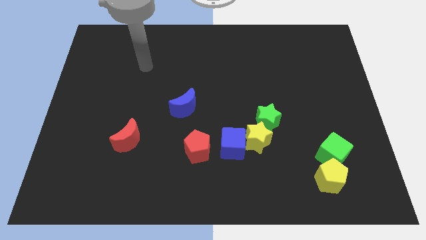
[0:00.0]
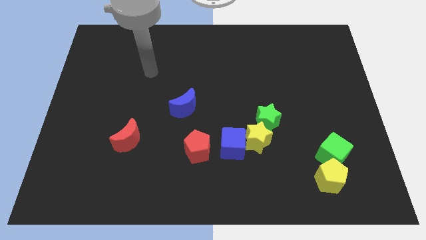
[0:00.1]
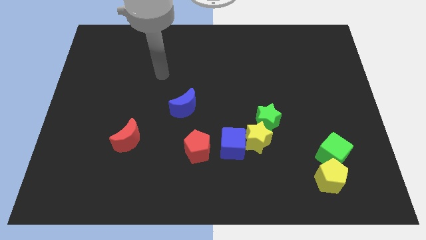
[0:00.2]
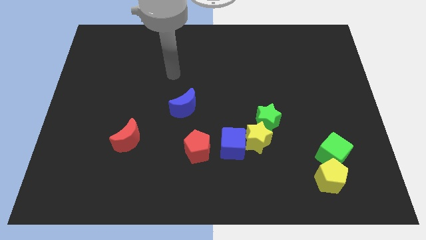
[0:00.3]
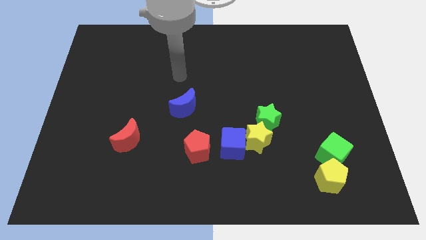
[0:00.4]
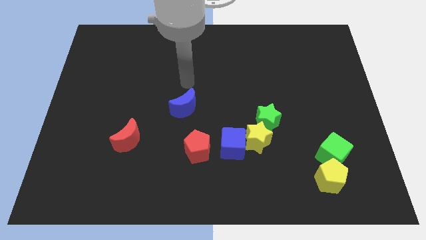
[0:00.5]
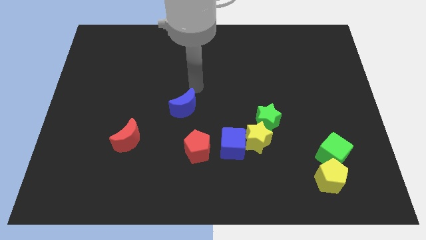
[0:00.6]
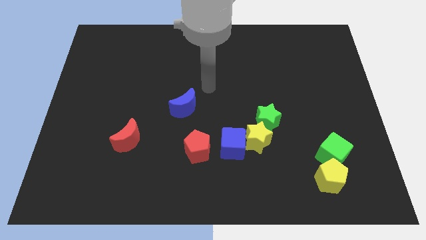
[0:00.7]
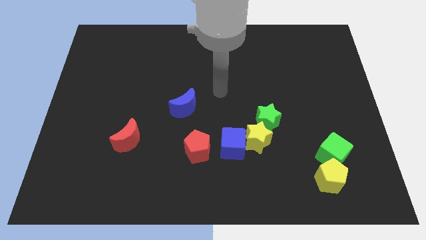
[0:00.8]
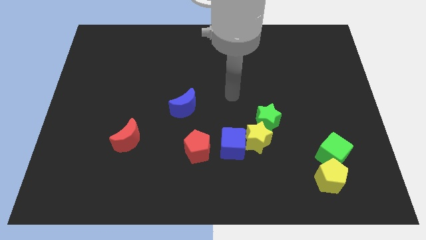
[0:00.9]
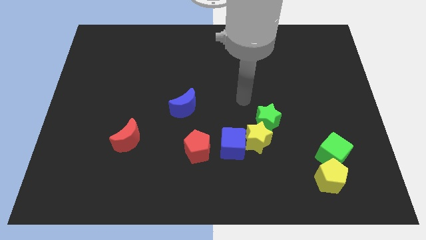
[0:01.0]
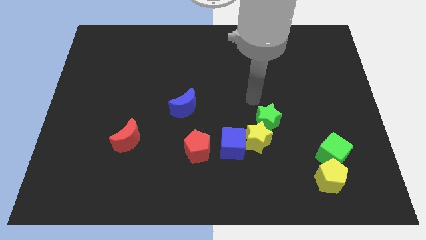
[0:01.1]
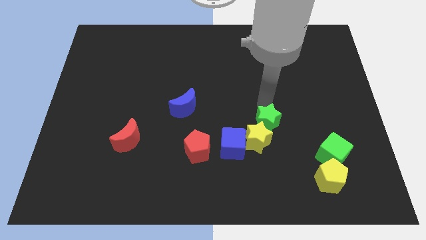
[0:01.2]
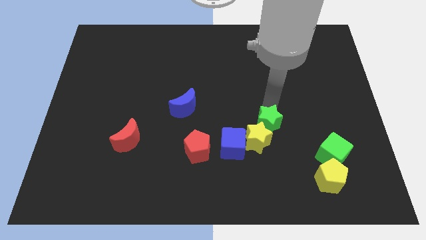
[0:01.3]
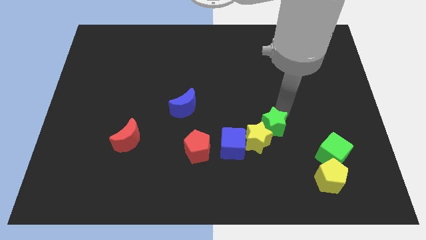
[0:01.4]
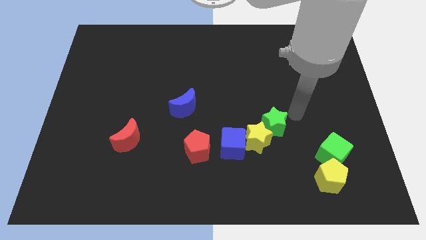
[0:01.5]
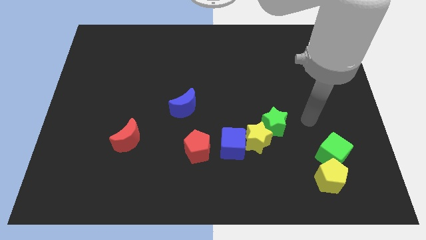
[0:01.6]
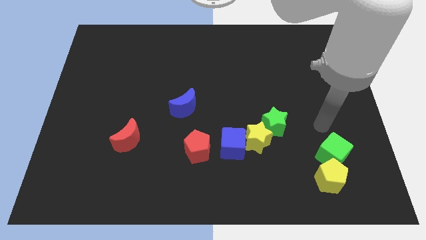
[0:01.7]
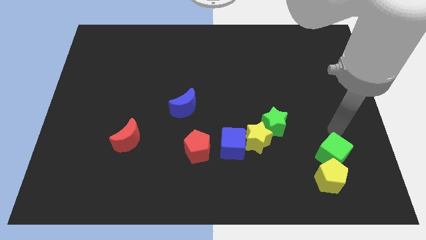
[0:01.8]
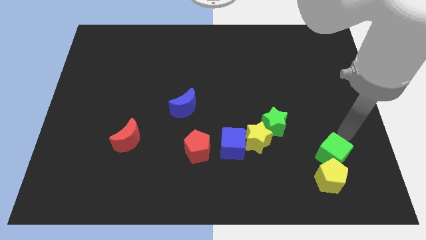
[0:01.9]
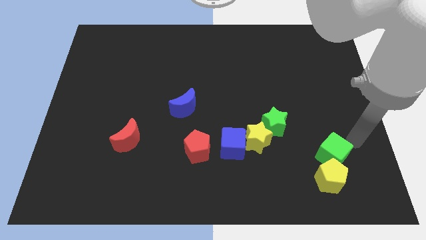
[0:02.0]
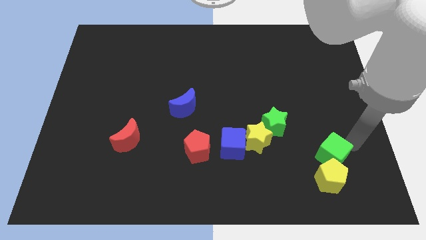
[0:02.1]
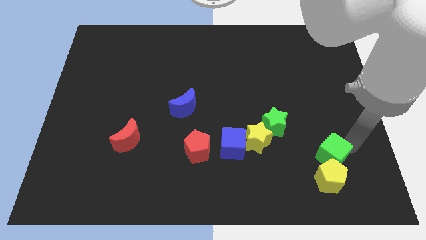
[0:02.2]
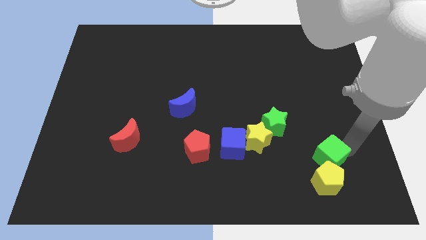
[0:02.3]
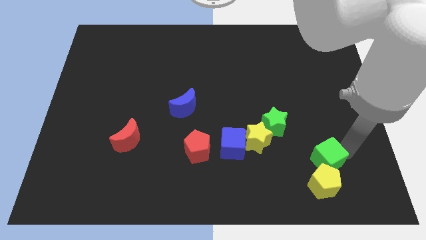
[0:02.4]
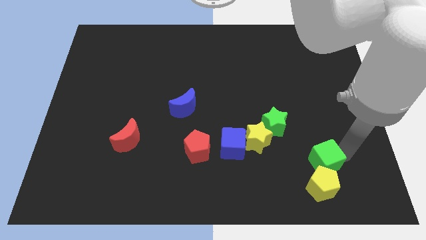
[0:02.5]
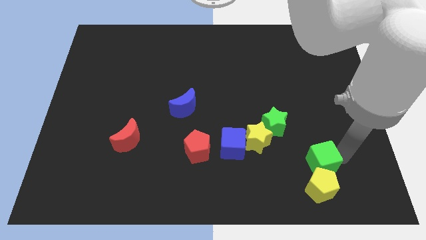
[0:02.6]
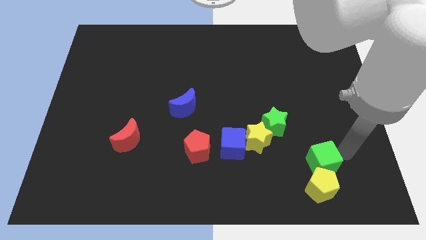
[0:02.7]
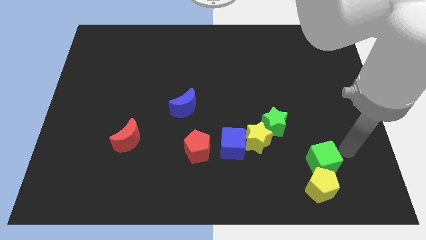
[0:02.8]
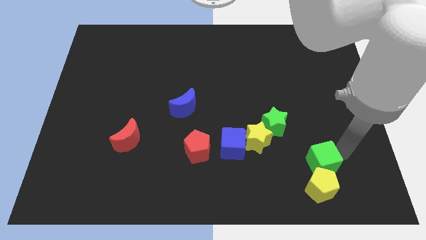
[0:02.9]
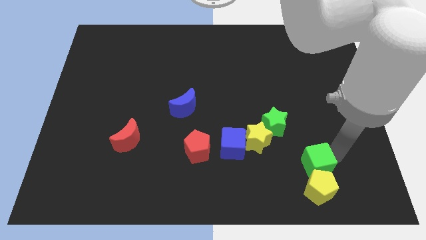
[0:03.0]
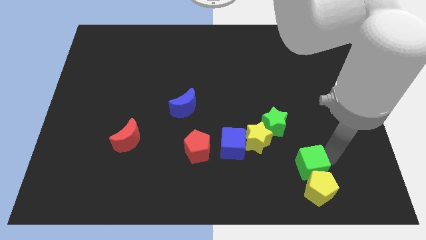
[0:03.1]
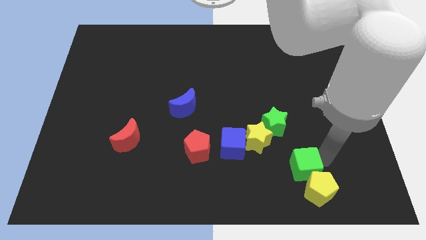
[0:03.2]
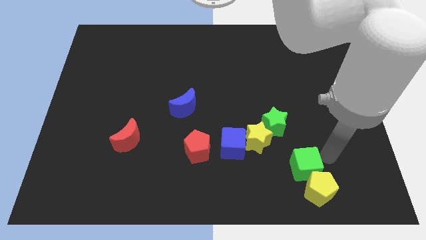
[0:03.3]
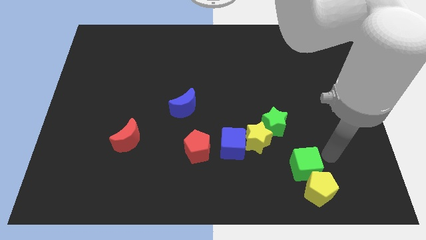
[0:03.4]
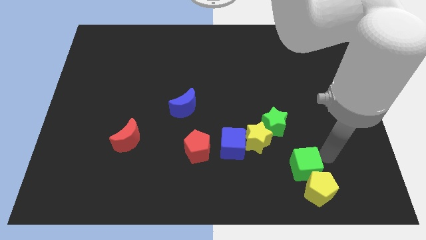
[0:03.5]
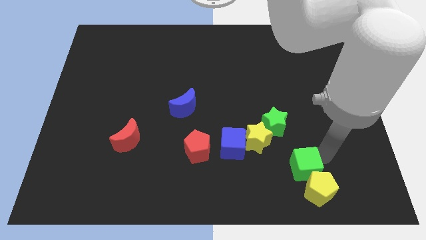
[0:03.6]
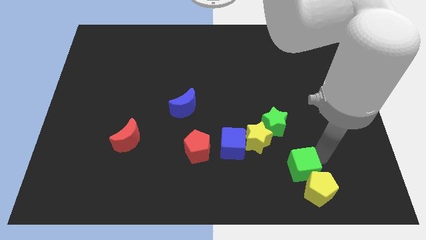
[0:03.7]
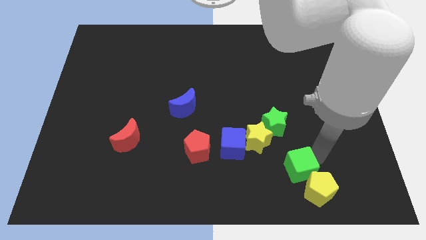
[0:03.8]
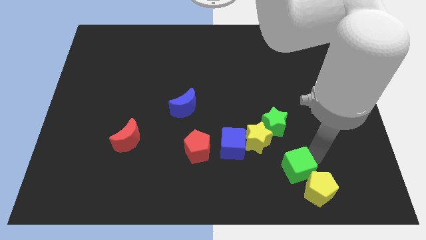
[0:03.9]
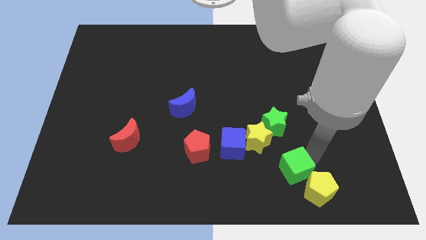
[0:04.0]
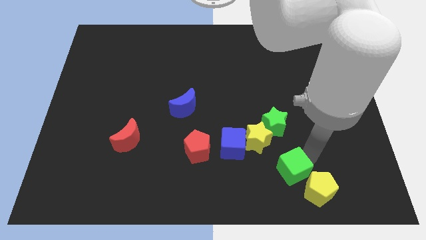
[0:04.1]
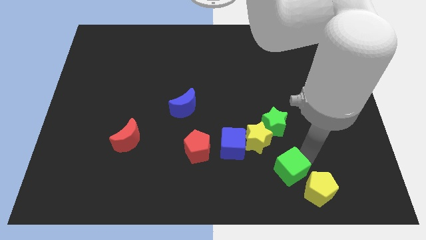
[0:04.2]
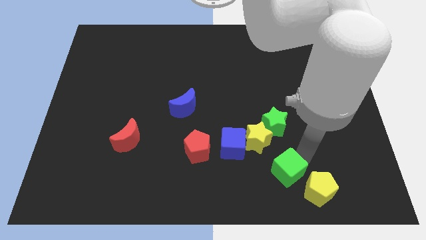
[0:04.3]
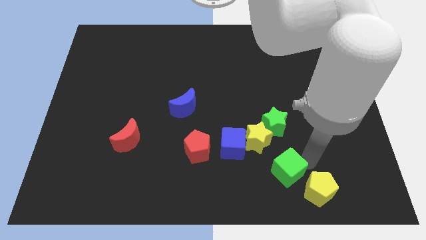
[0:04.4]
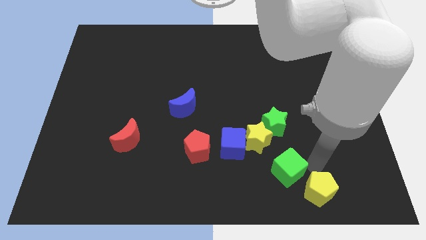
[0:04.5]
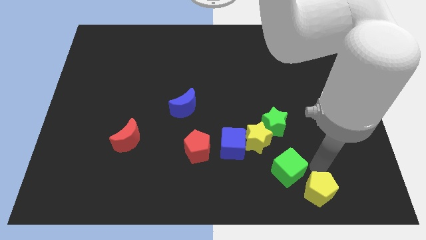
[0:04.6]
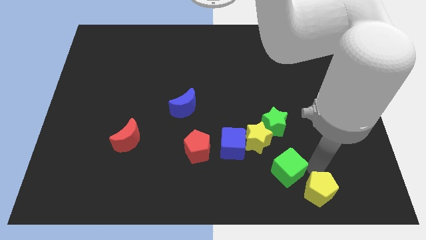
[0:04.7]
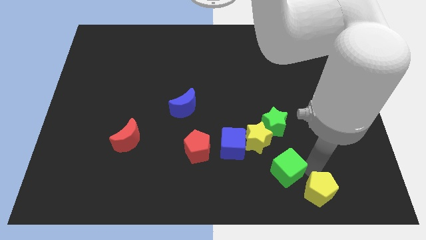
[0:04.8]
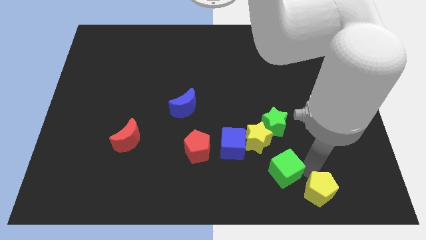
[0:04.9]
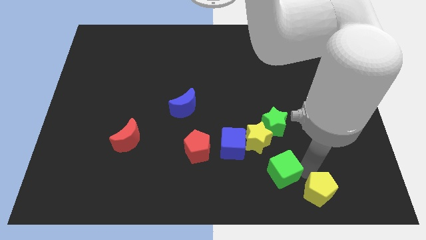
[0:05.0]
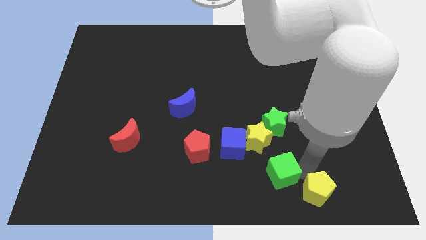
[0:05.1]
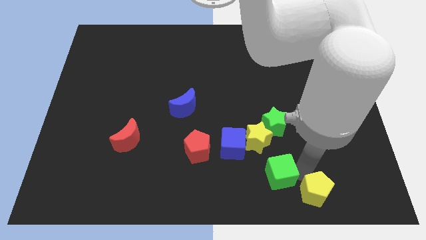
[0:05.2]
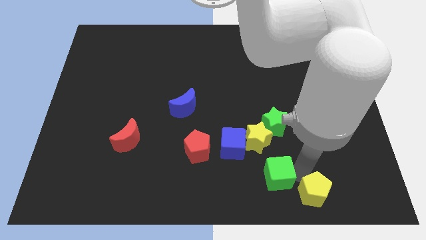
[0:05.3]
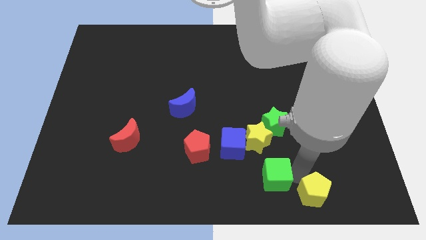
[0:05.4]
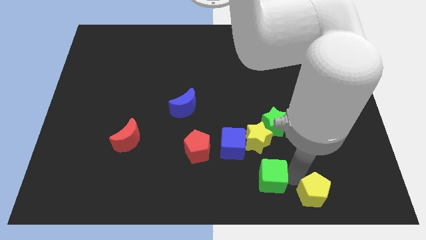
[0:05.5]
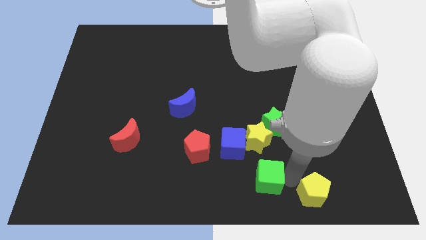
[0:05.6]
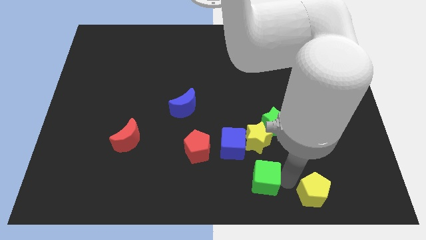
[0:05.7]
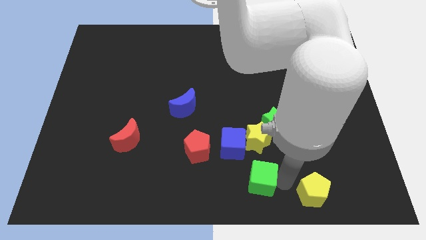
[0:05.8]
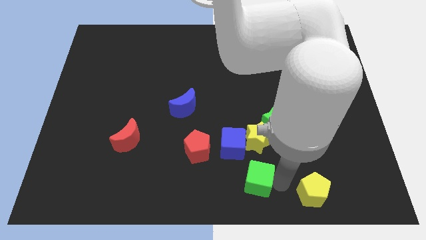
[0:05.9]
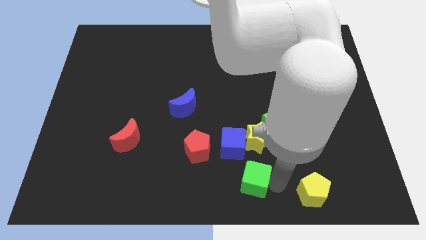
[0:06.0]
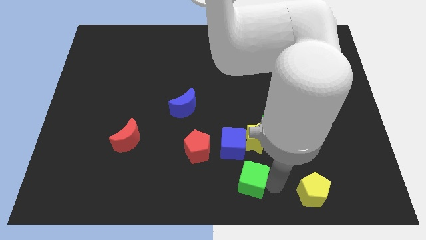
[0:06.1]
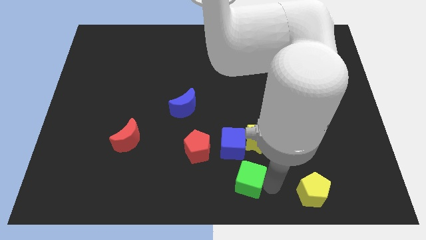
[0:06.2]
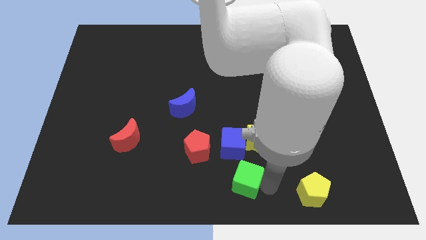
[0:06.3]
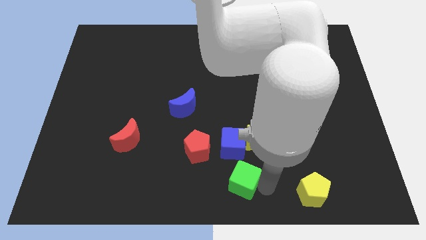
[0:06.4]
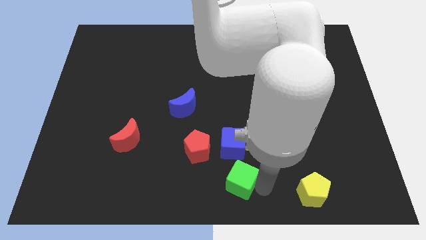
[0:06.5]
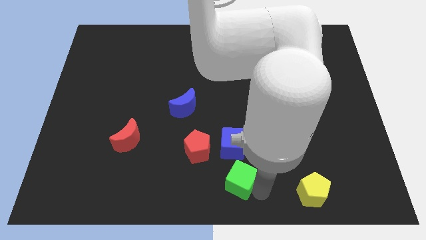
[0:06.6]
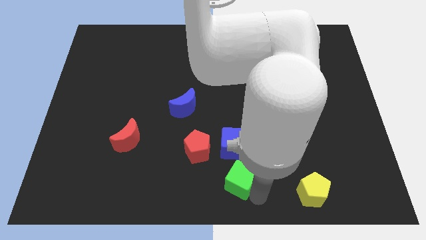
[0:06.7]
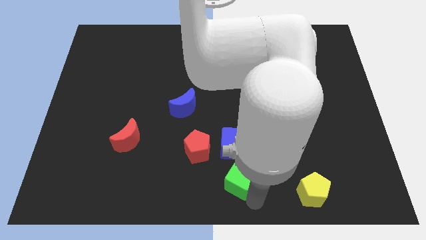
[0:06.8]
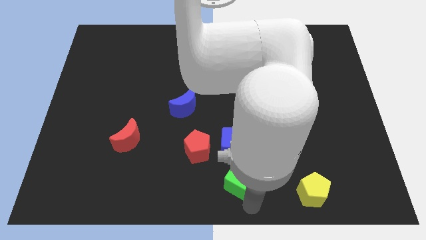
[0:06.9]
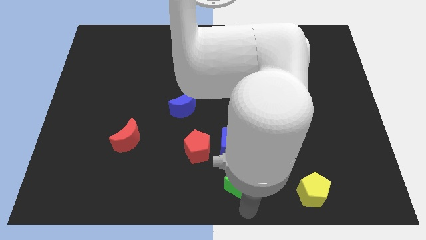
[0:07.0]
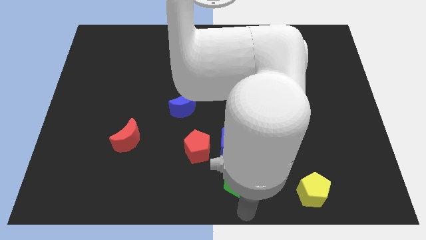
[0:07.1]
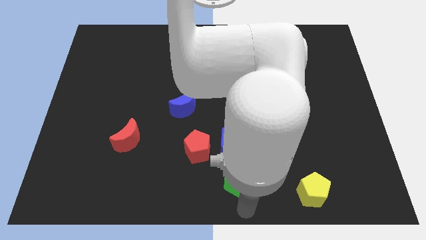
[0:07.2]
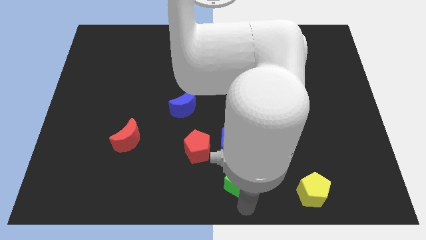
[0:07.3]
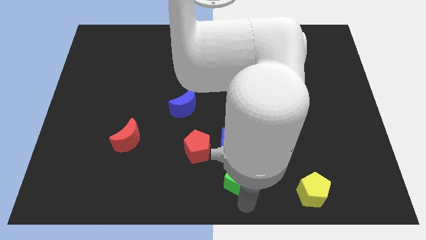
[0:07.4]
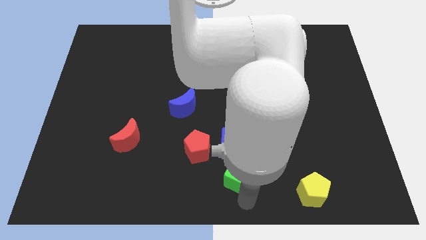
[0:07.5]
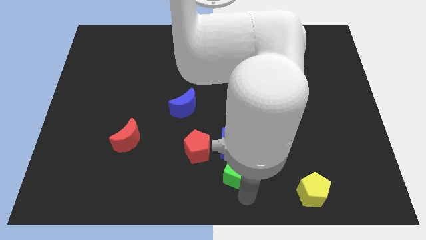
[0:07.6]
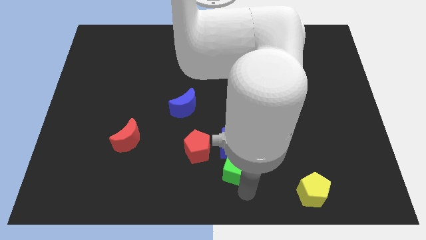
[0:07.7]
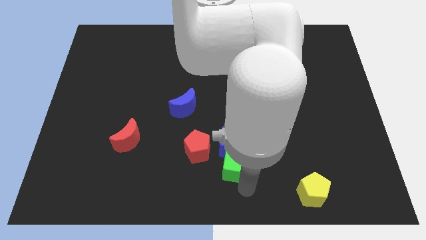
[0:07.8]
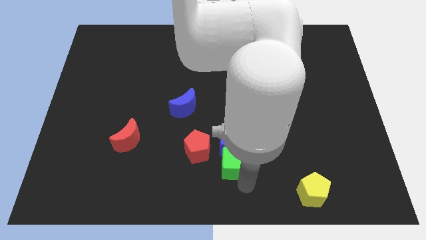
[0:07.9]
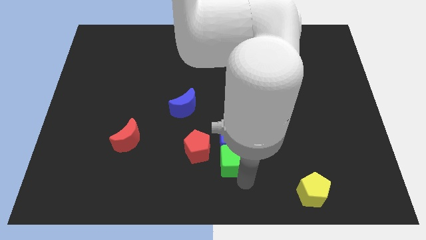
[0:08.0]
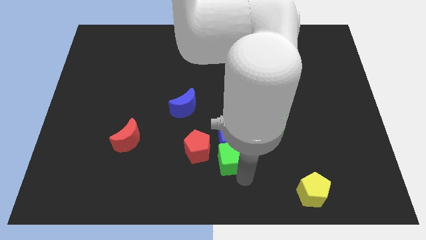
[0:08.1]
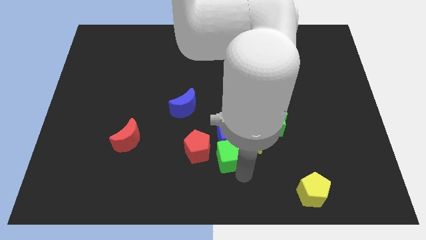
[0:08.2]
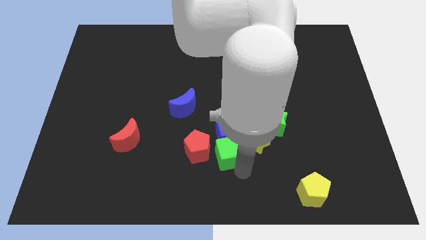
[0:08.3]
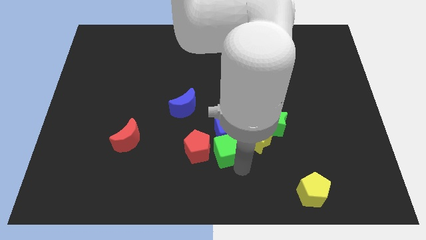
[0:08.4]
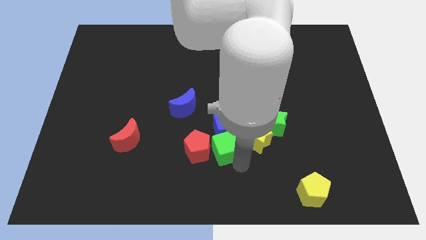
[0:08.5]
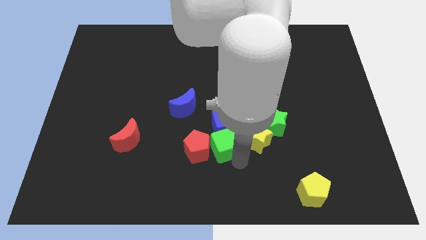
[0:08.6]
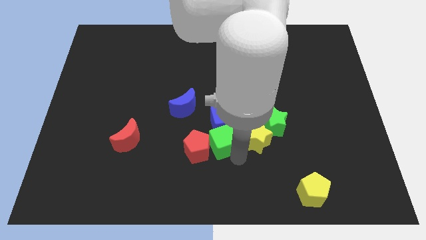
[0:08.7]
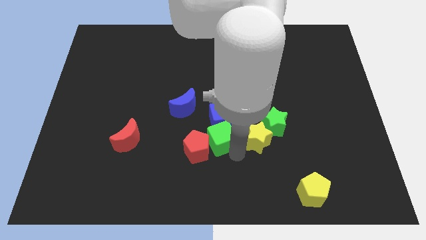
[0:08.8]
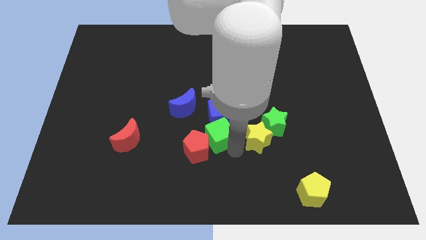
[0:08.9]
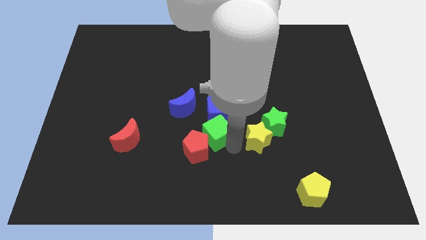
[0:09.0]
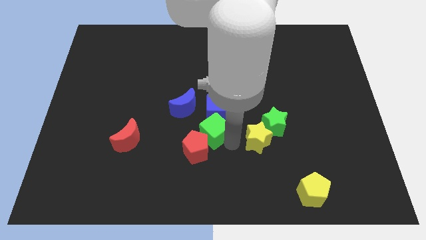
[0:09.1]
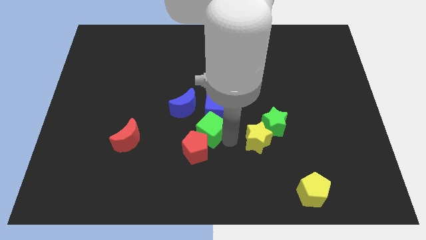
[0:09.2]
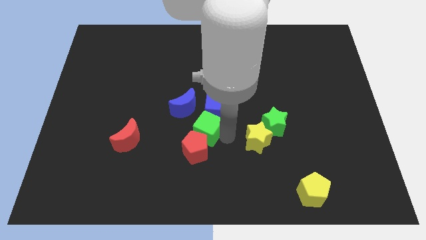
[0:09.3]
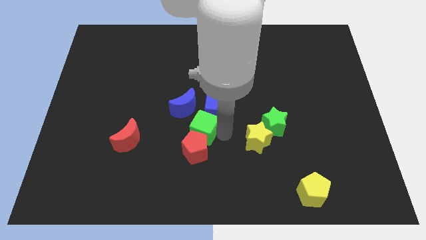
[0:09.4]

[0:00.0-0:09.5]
put the green cube below the blue moon
